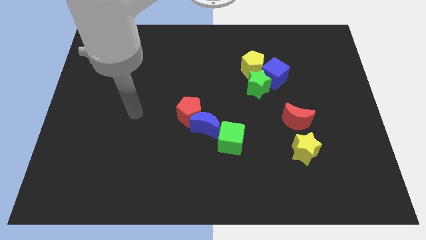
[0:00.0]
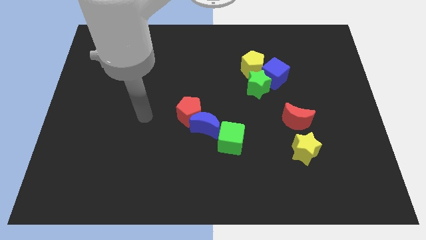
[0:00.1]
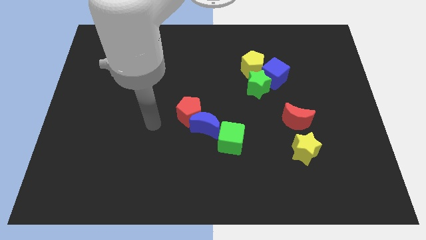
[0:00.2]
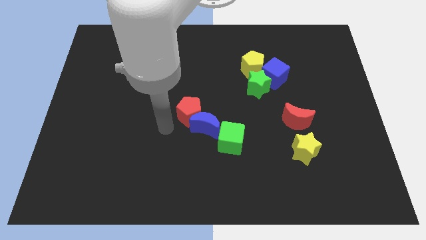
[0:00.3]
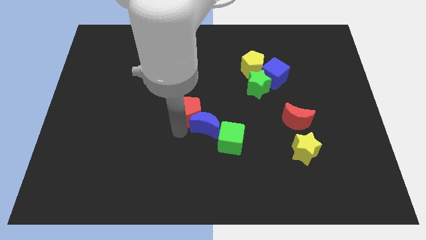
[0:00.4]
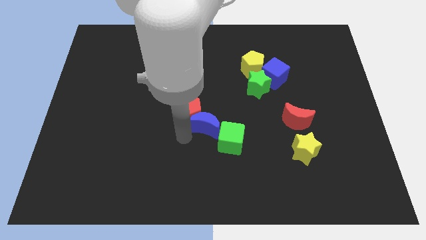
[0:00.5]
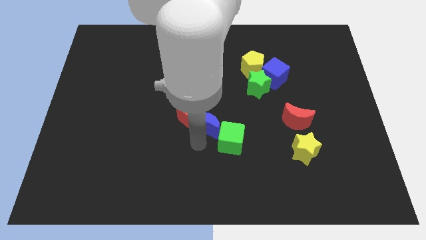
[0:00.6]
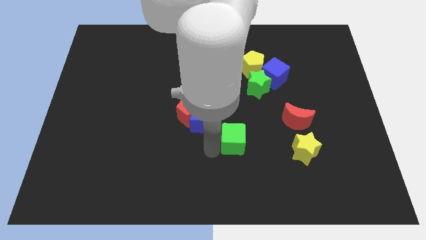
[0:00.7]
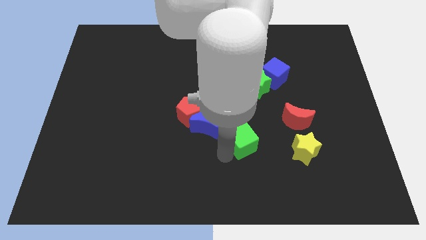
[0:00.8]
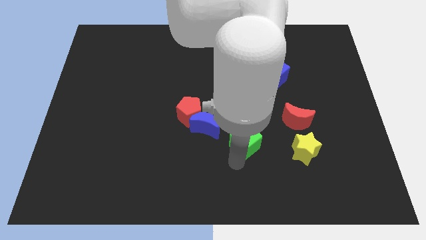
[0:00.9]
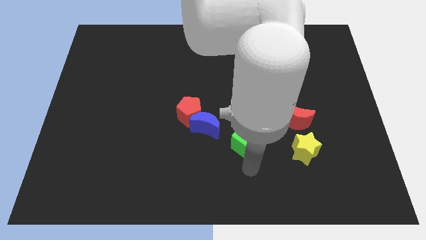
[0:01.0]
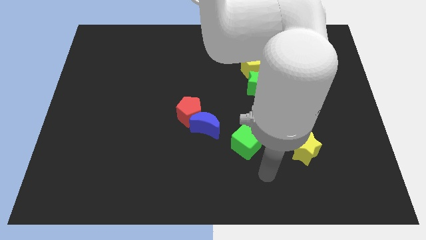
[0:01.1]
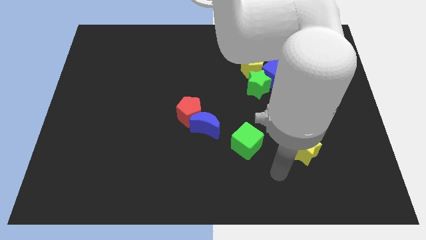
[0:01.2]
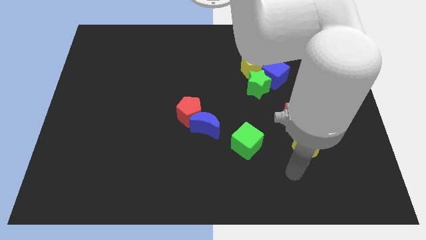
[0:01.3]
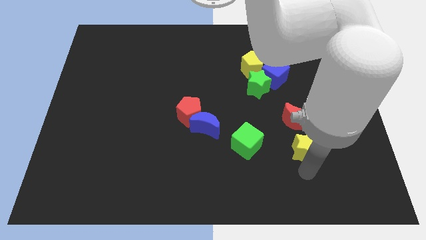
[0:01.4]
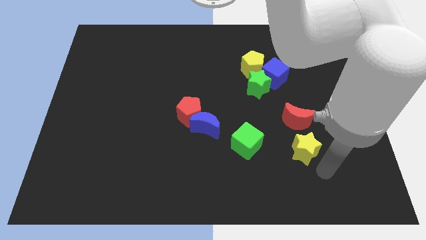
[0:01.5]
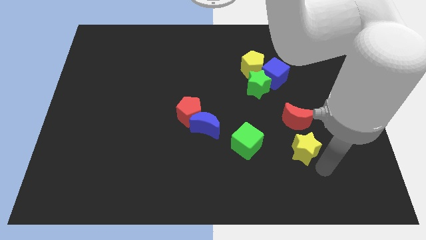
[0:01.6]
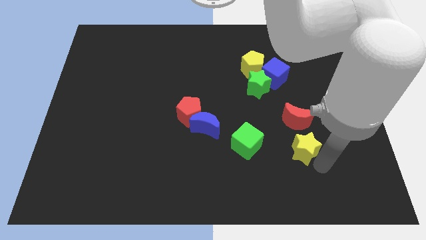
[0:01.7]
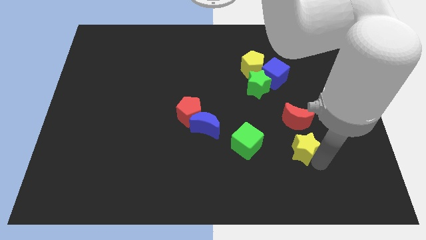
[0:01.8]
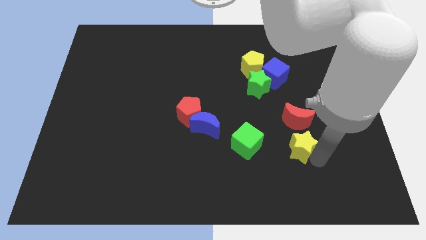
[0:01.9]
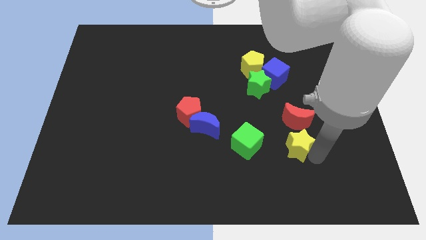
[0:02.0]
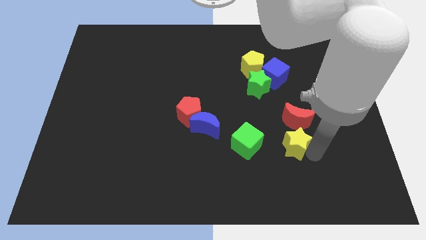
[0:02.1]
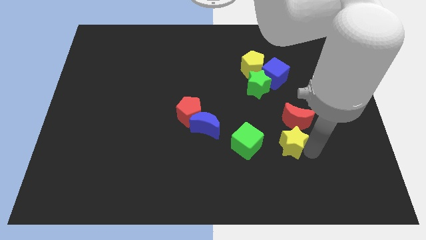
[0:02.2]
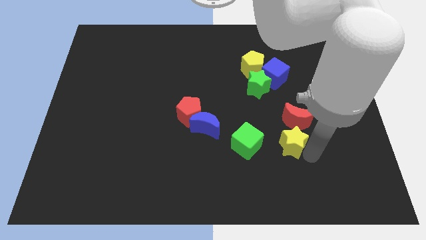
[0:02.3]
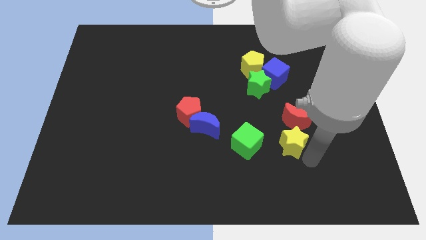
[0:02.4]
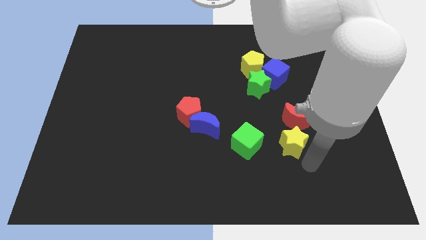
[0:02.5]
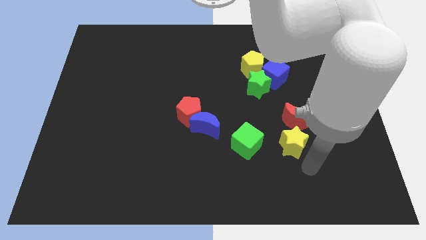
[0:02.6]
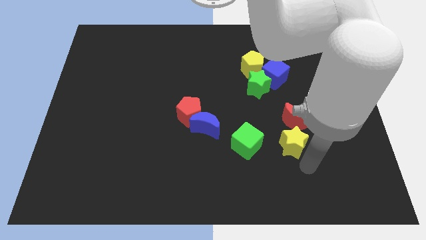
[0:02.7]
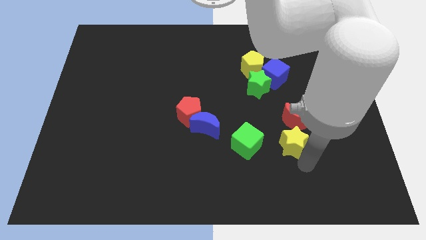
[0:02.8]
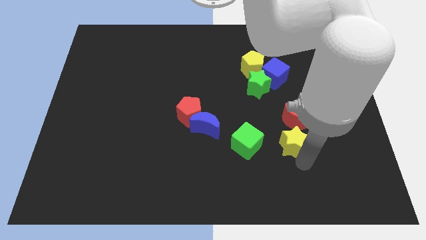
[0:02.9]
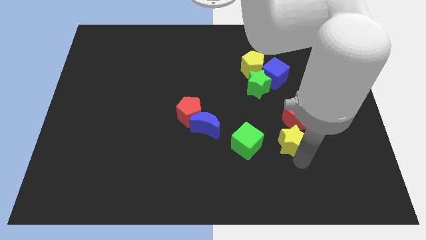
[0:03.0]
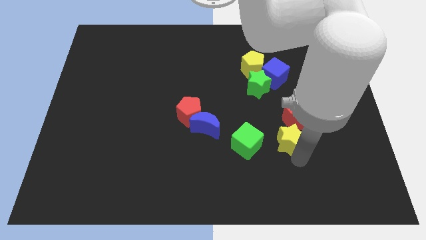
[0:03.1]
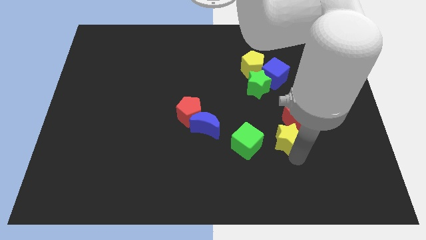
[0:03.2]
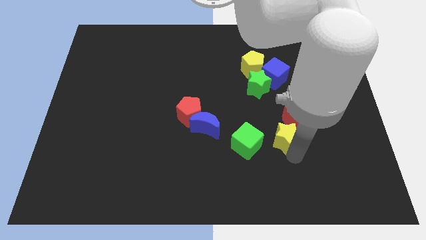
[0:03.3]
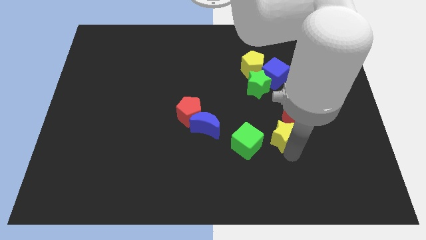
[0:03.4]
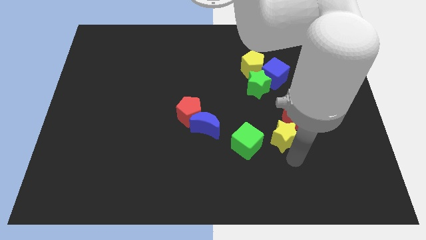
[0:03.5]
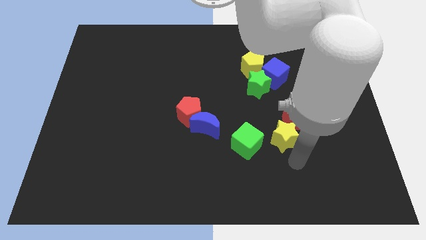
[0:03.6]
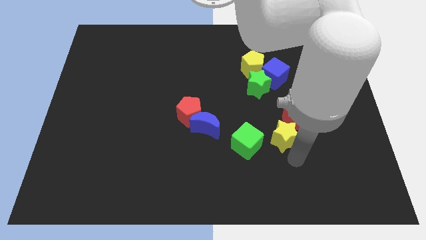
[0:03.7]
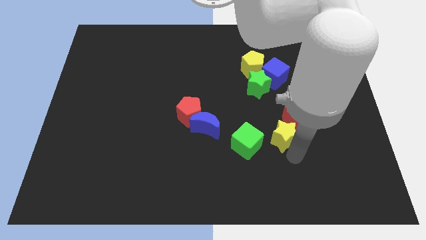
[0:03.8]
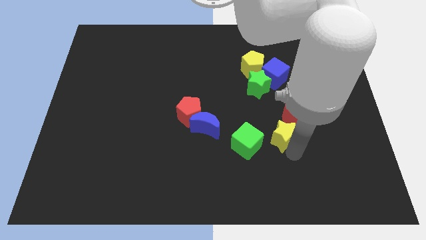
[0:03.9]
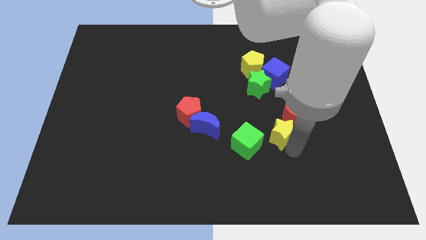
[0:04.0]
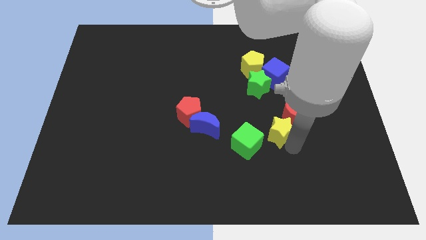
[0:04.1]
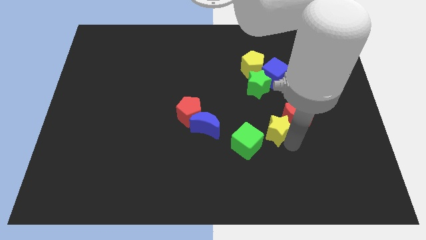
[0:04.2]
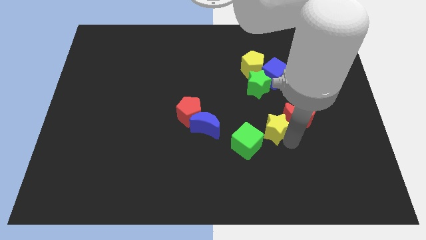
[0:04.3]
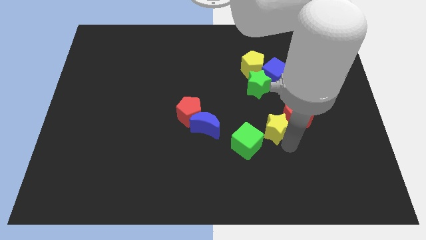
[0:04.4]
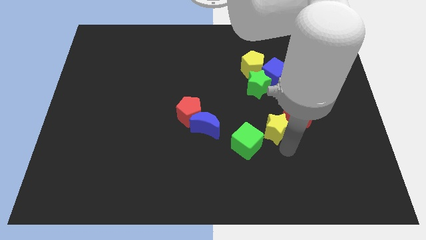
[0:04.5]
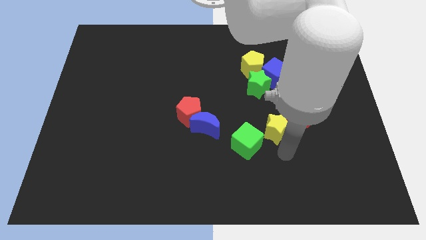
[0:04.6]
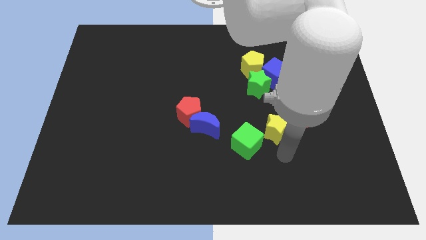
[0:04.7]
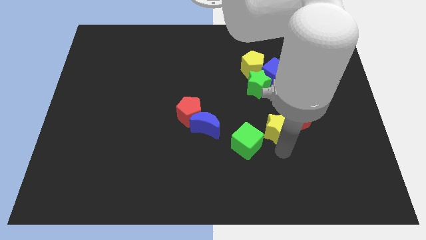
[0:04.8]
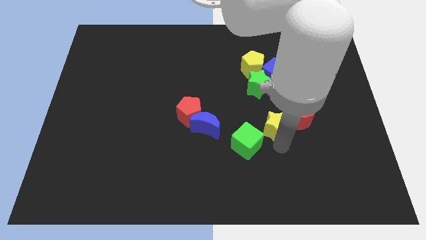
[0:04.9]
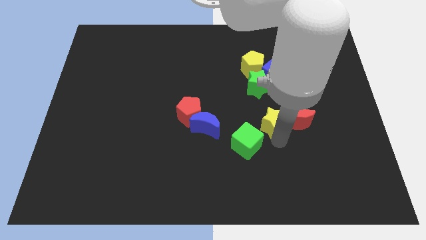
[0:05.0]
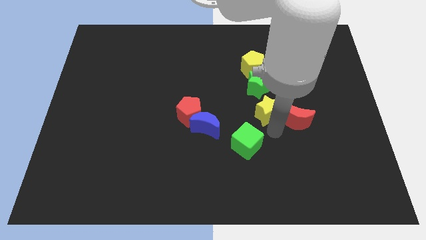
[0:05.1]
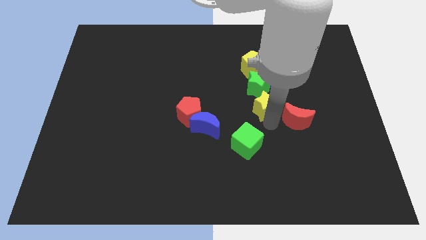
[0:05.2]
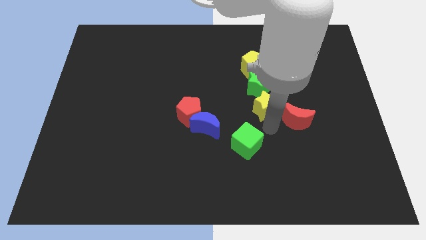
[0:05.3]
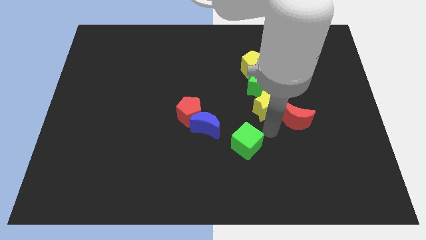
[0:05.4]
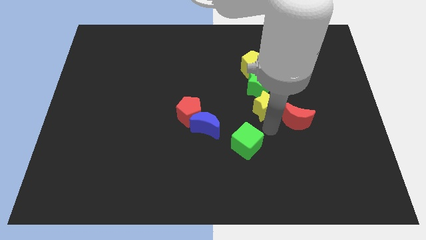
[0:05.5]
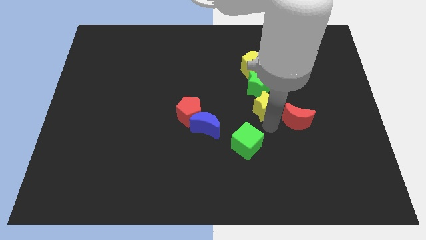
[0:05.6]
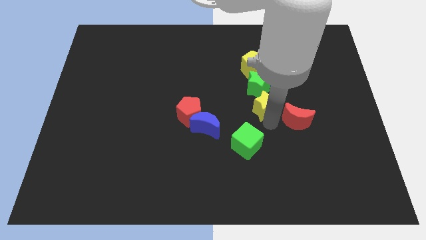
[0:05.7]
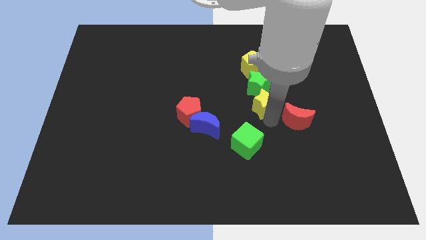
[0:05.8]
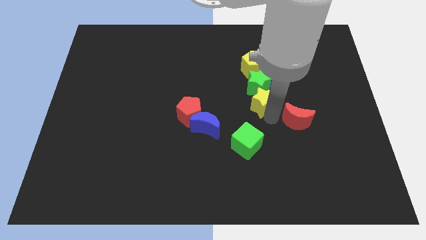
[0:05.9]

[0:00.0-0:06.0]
push the yellow star next to the green star

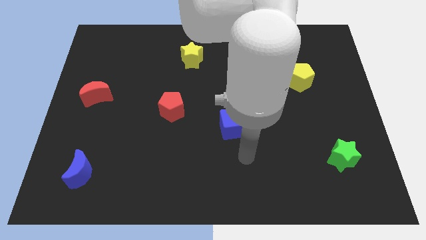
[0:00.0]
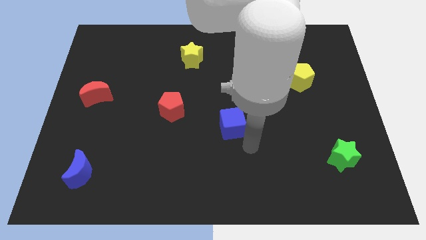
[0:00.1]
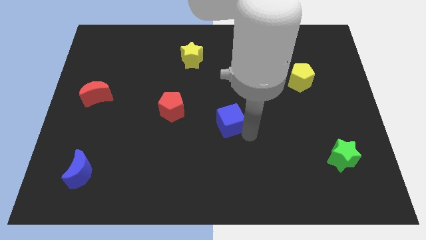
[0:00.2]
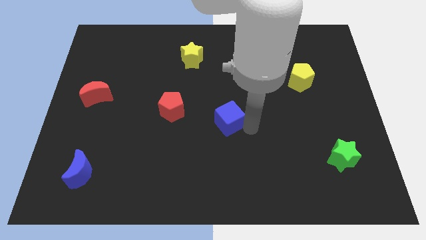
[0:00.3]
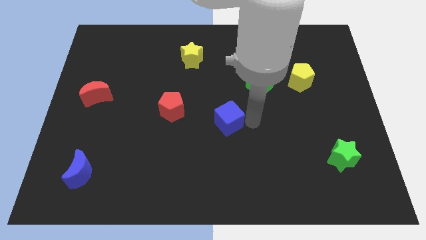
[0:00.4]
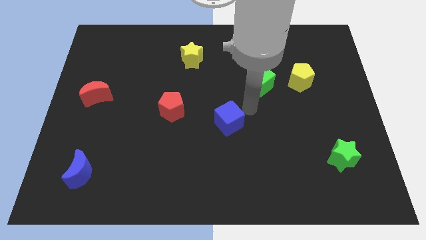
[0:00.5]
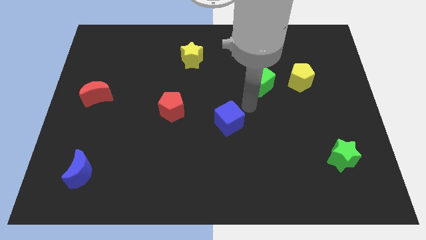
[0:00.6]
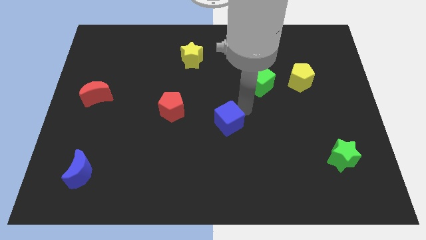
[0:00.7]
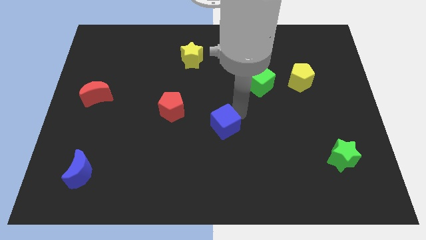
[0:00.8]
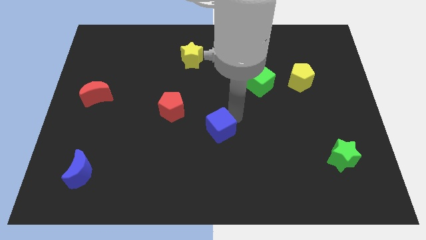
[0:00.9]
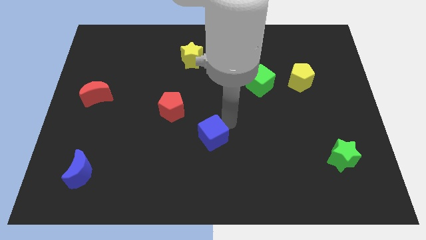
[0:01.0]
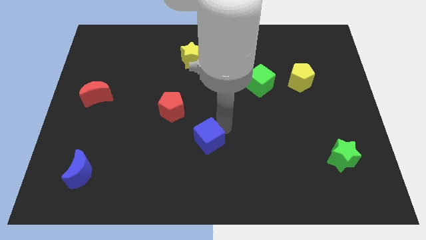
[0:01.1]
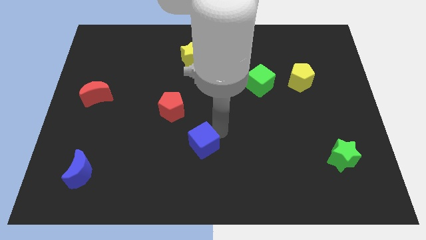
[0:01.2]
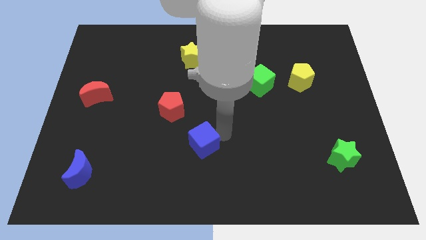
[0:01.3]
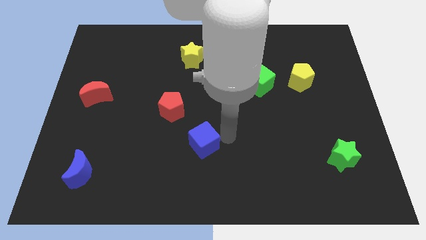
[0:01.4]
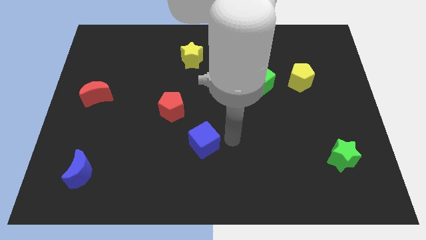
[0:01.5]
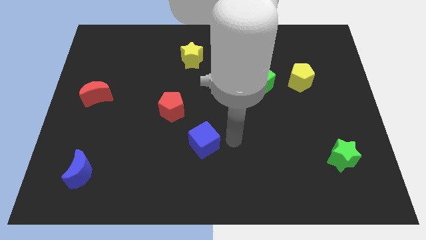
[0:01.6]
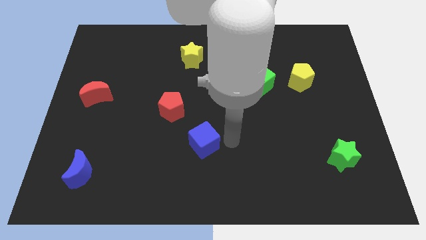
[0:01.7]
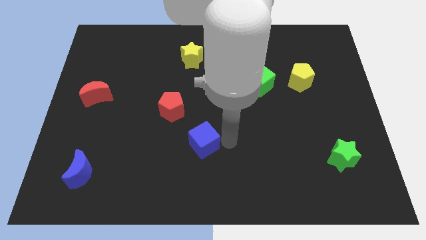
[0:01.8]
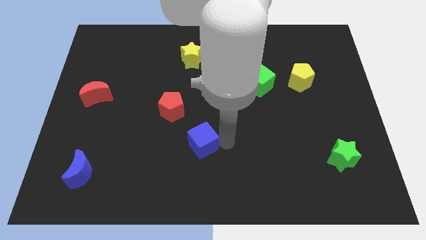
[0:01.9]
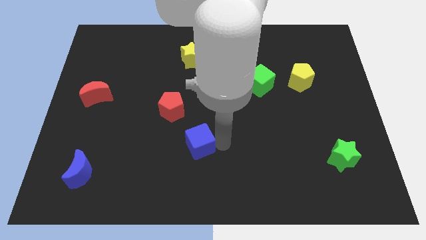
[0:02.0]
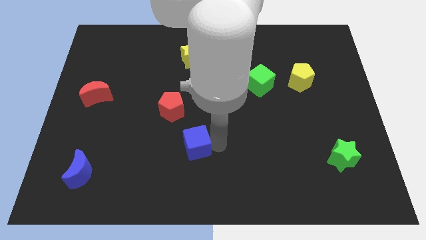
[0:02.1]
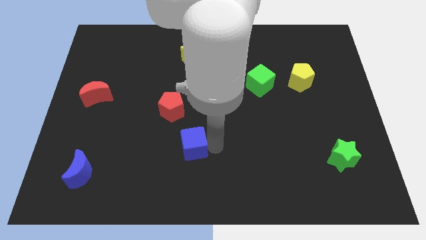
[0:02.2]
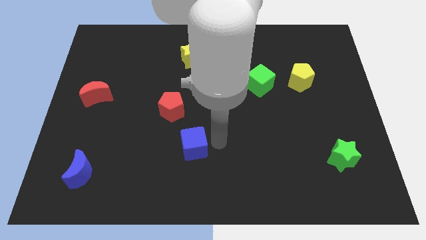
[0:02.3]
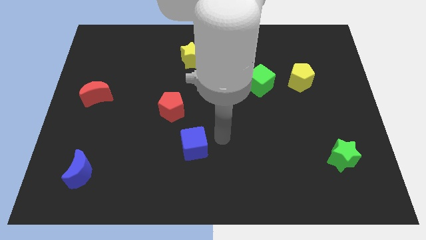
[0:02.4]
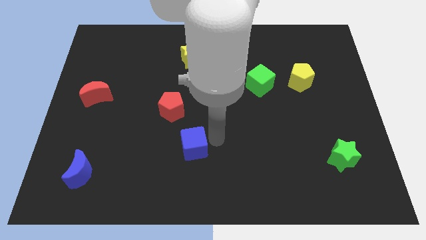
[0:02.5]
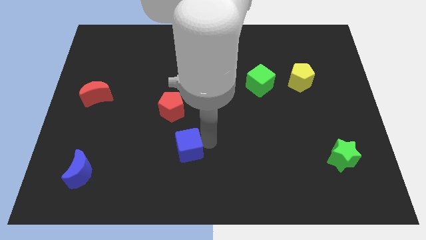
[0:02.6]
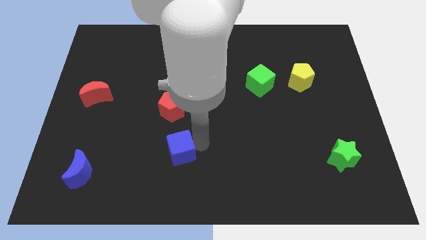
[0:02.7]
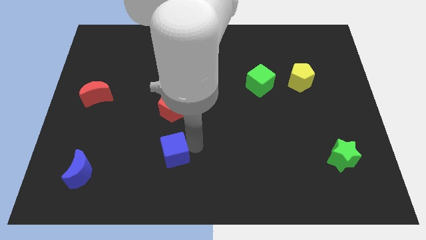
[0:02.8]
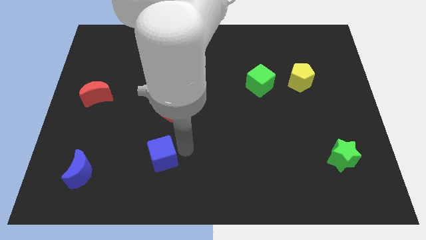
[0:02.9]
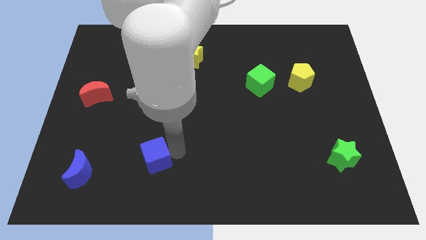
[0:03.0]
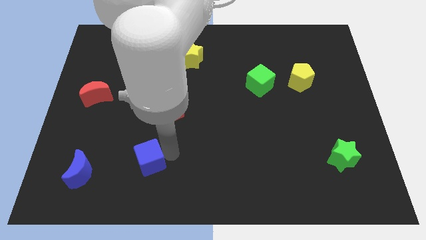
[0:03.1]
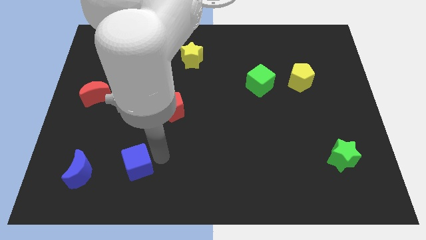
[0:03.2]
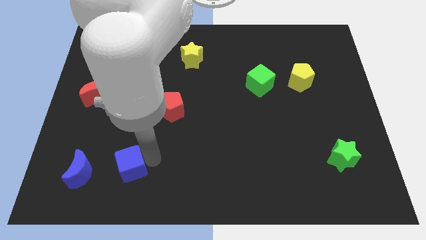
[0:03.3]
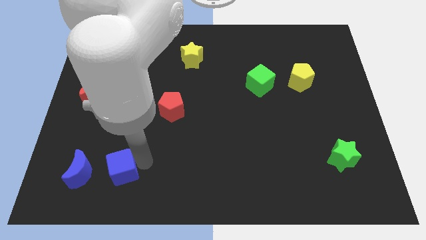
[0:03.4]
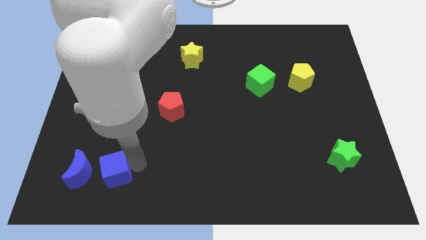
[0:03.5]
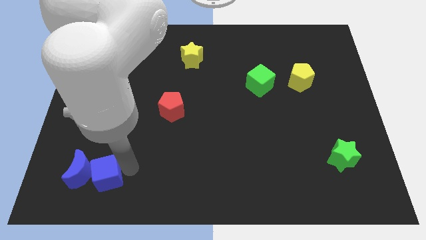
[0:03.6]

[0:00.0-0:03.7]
slide the blue cube towards the blue moon
